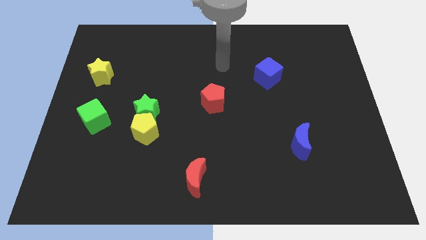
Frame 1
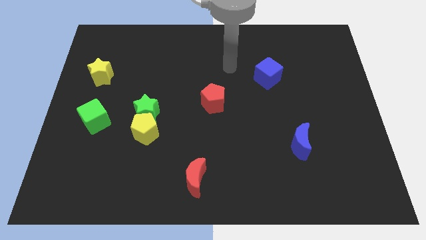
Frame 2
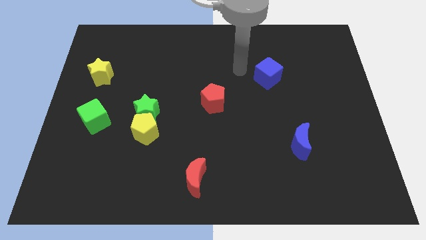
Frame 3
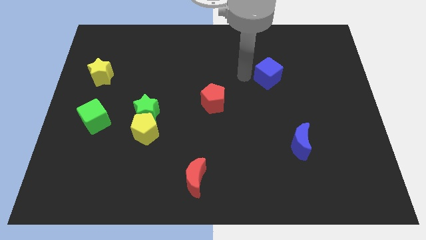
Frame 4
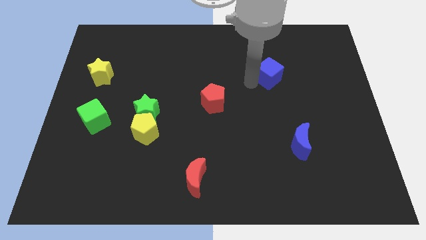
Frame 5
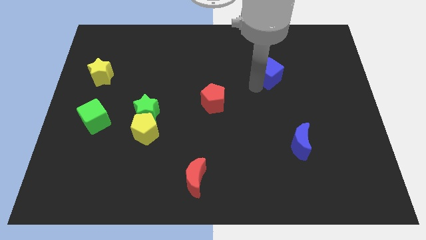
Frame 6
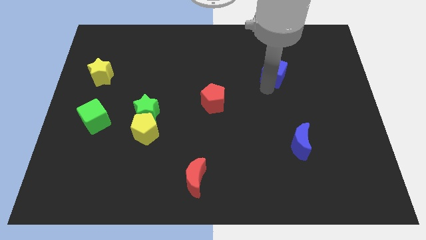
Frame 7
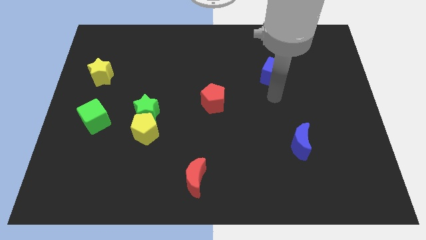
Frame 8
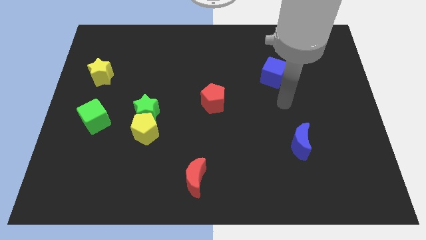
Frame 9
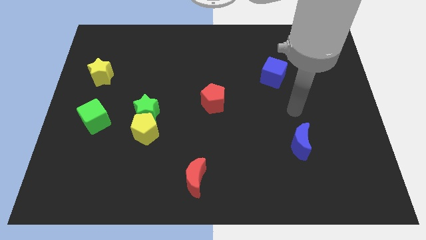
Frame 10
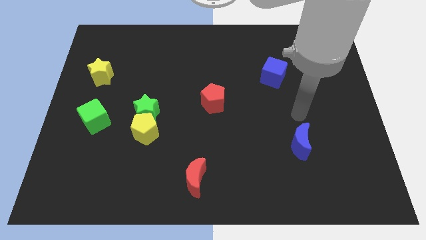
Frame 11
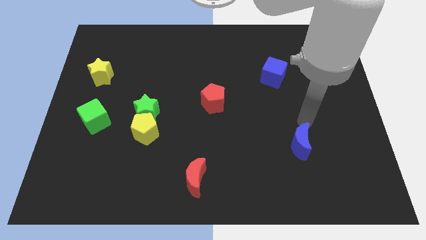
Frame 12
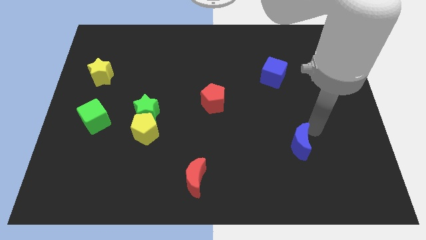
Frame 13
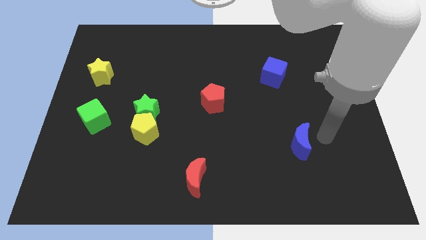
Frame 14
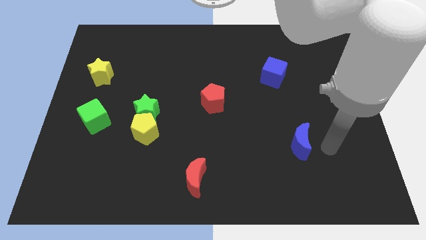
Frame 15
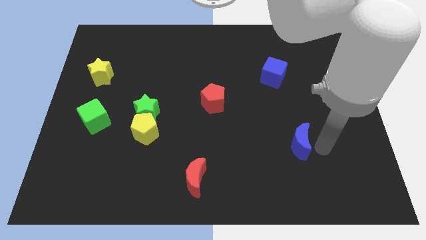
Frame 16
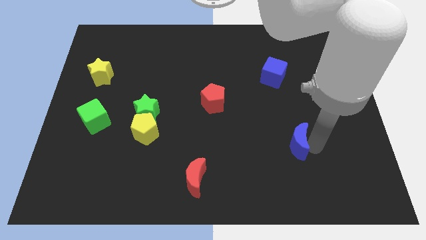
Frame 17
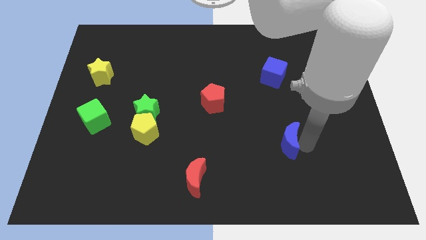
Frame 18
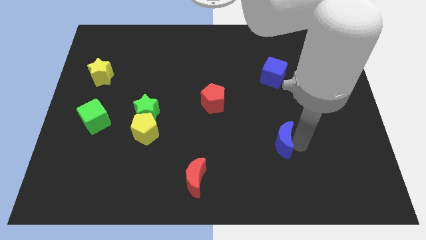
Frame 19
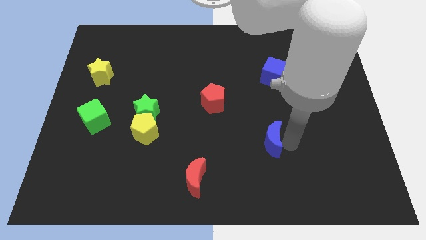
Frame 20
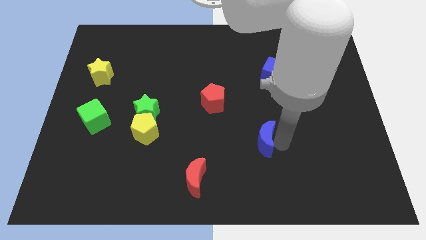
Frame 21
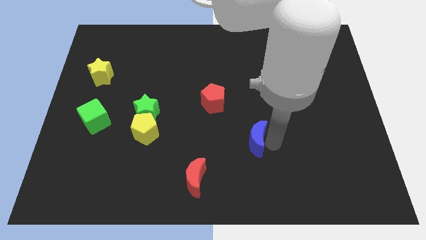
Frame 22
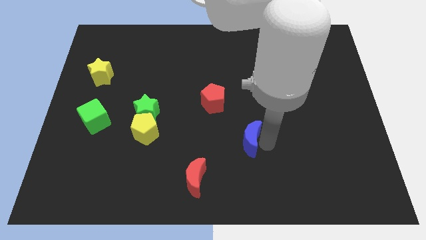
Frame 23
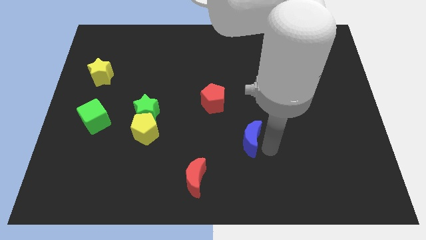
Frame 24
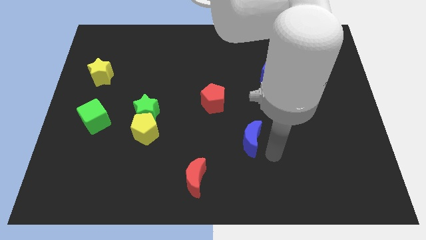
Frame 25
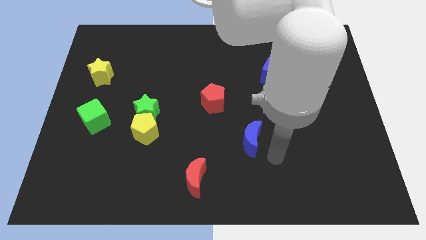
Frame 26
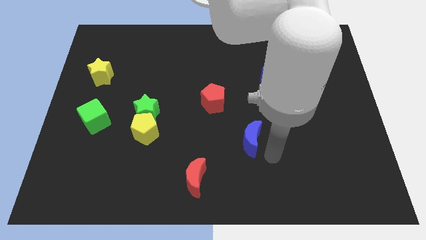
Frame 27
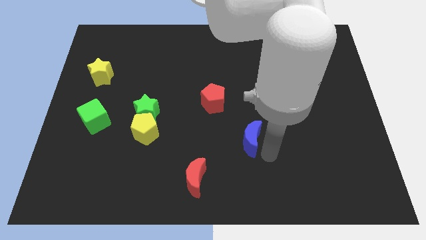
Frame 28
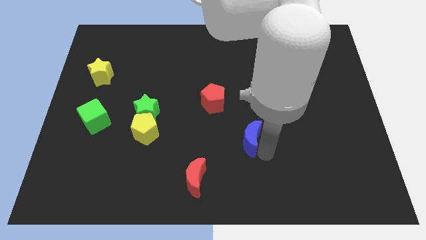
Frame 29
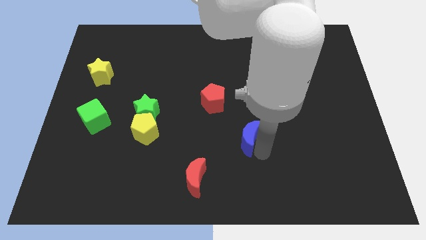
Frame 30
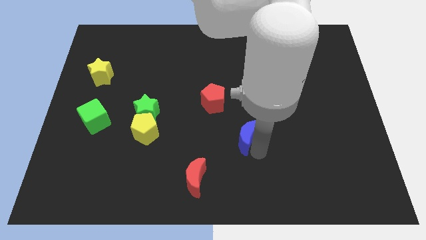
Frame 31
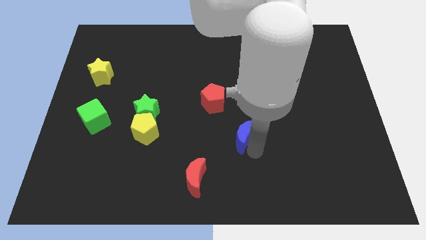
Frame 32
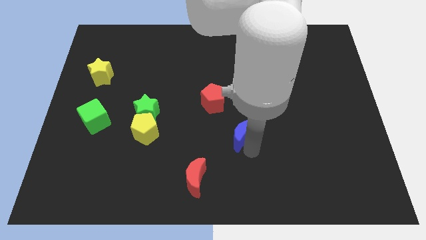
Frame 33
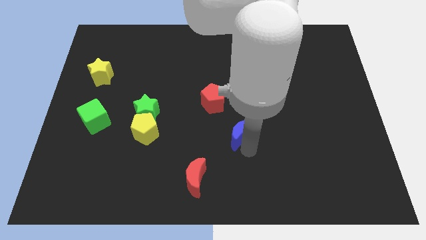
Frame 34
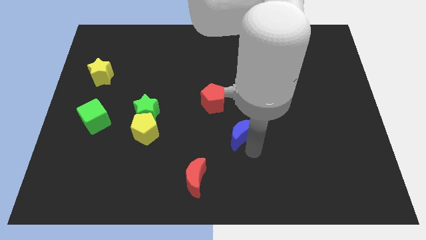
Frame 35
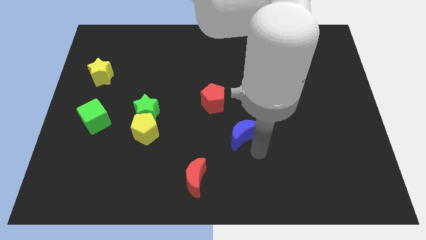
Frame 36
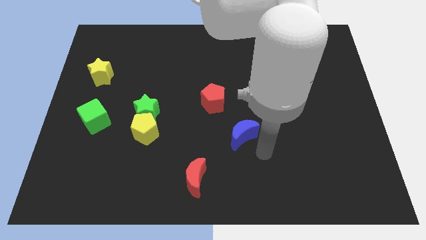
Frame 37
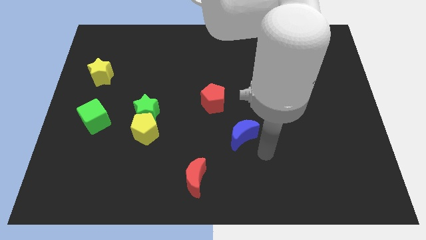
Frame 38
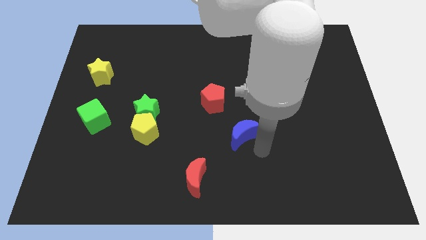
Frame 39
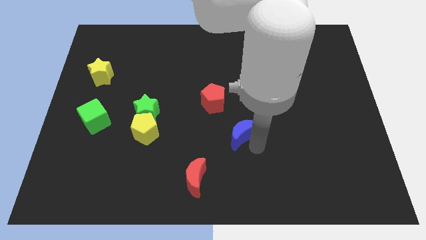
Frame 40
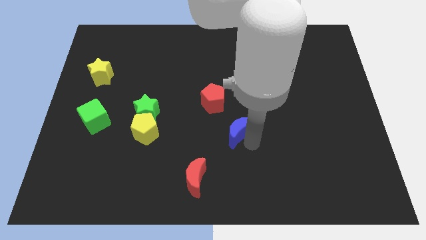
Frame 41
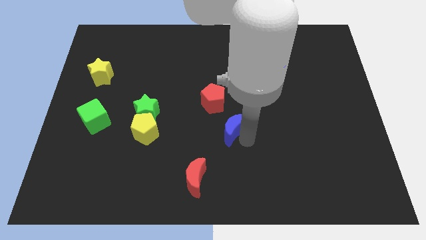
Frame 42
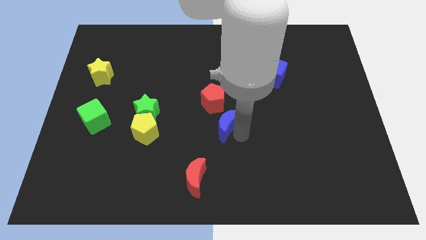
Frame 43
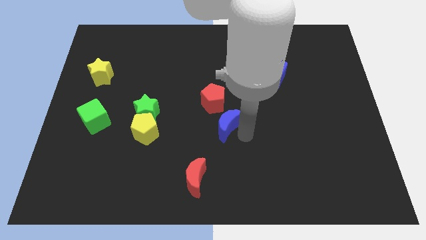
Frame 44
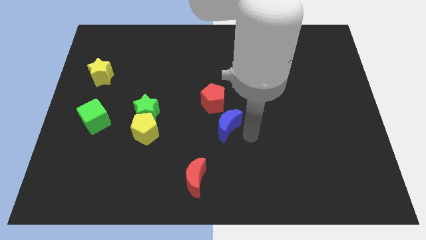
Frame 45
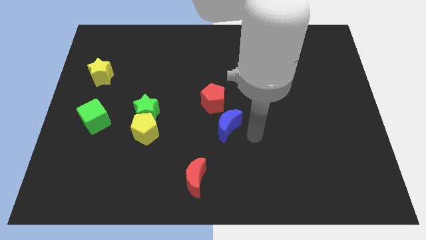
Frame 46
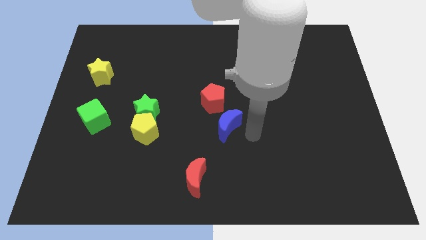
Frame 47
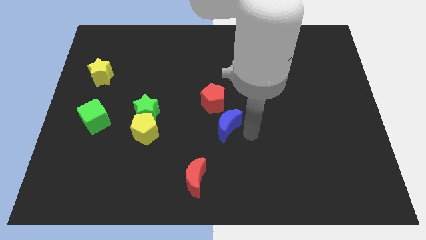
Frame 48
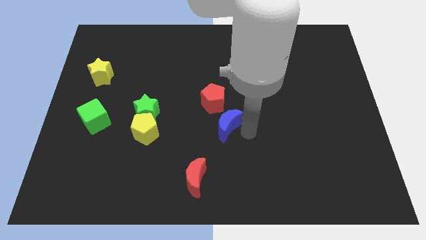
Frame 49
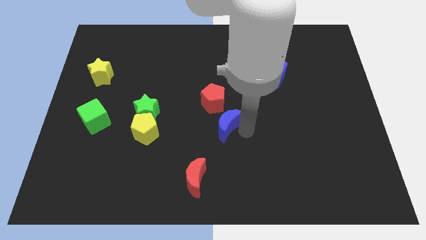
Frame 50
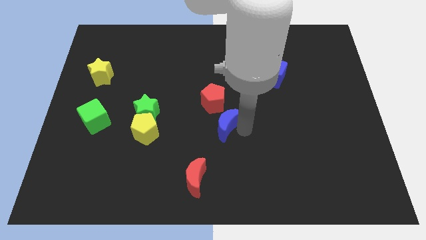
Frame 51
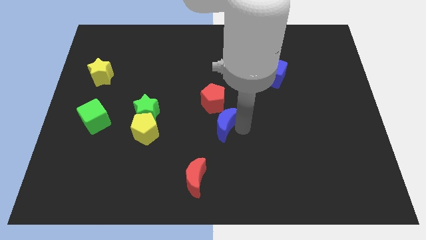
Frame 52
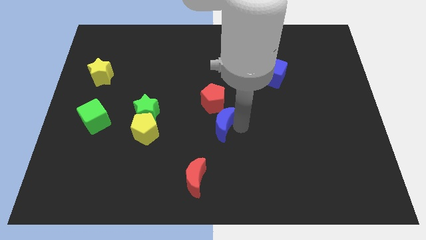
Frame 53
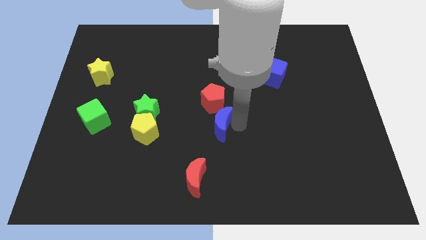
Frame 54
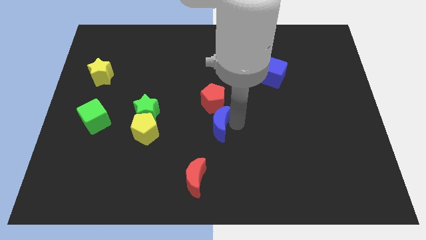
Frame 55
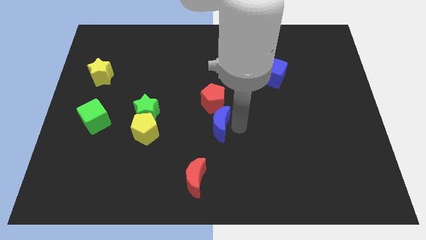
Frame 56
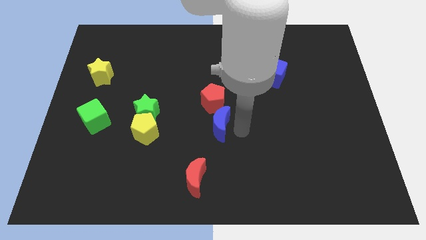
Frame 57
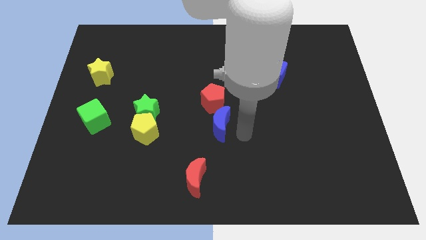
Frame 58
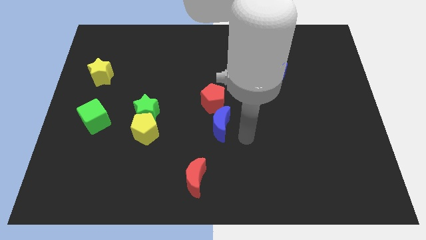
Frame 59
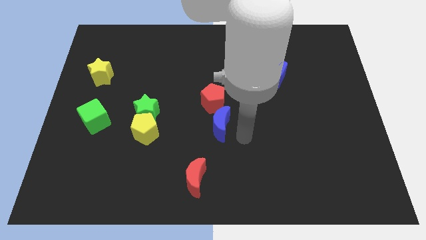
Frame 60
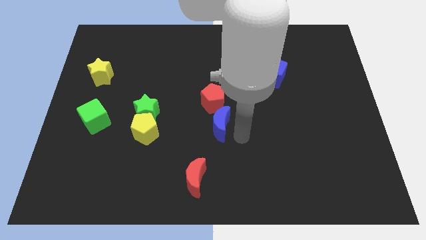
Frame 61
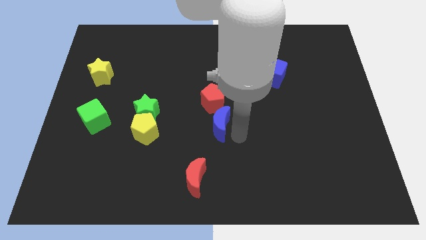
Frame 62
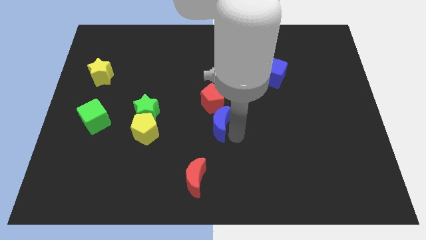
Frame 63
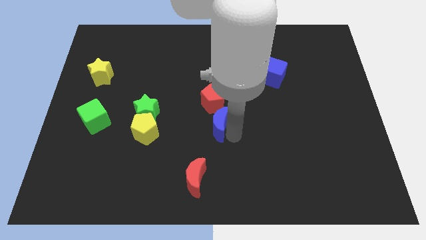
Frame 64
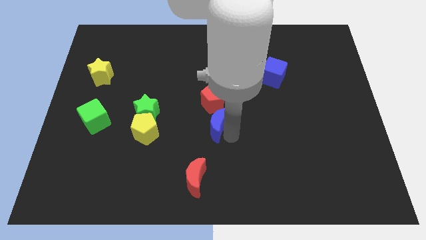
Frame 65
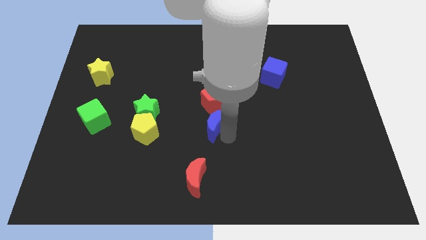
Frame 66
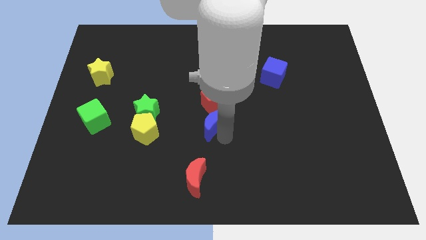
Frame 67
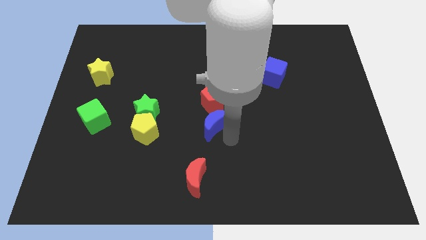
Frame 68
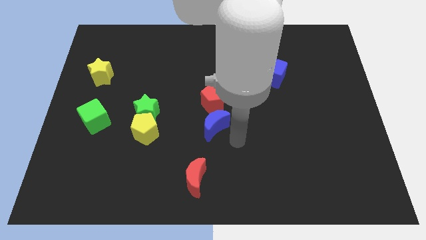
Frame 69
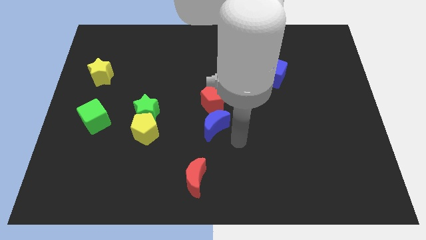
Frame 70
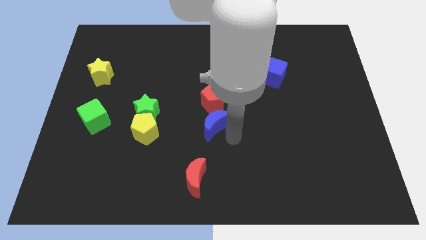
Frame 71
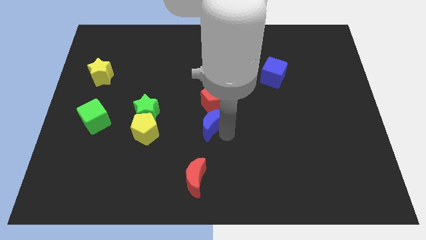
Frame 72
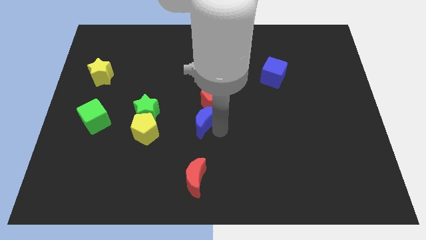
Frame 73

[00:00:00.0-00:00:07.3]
push the blue moon just right of the green star
